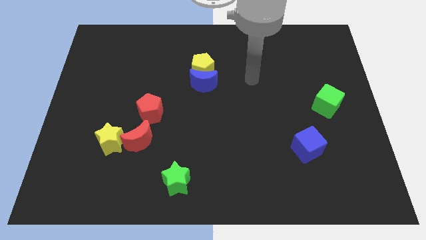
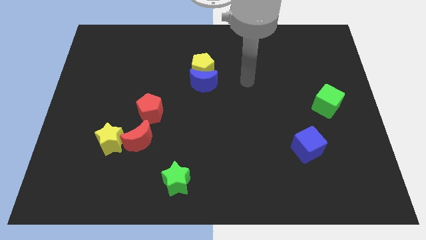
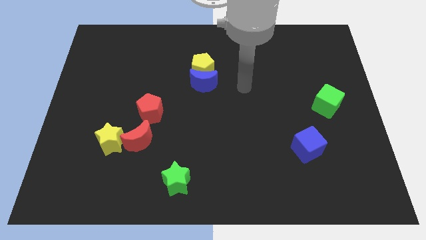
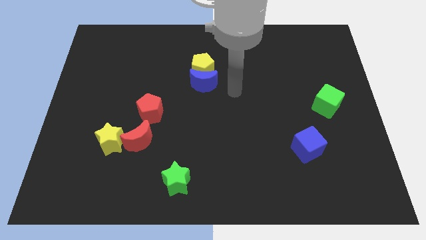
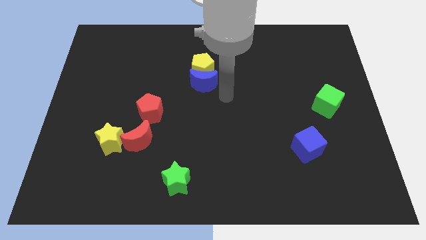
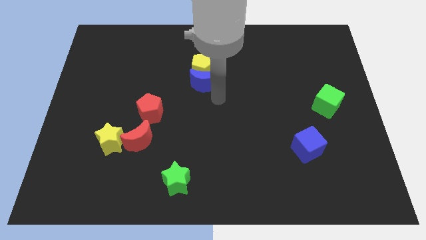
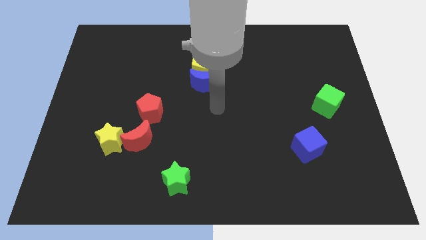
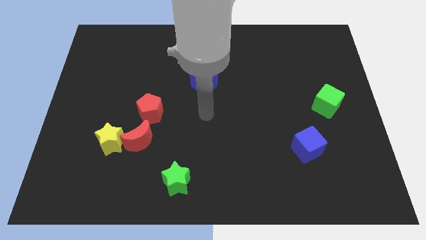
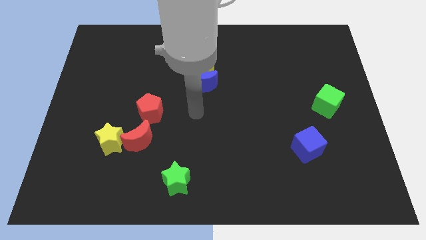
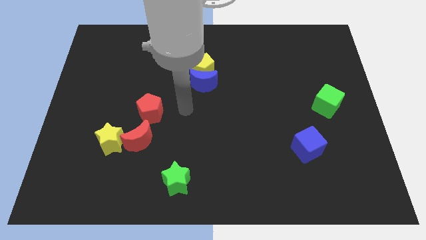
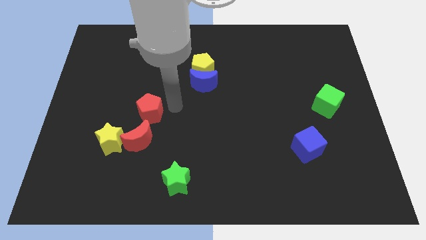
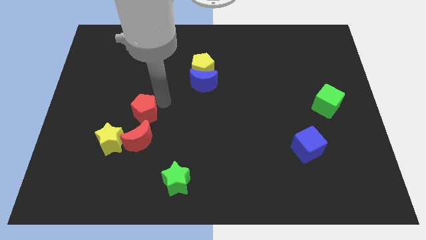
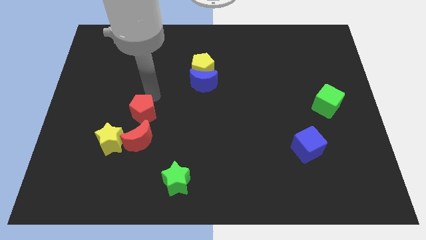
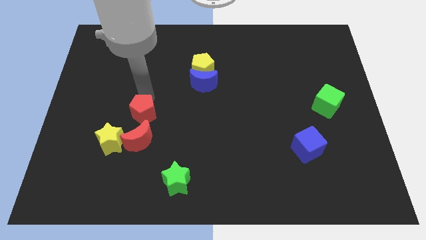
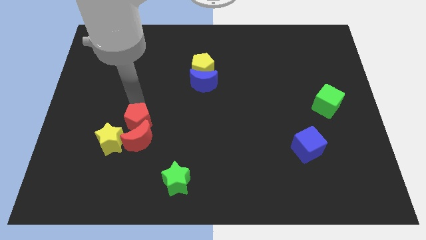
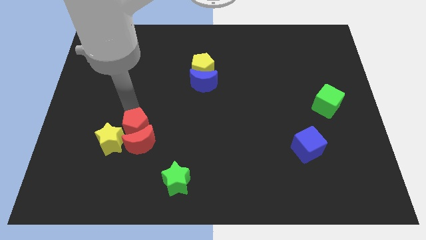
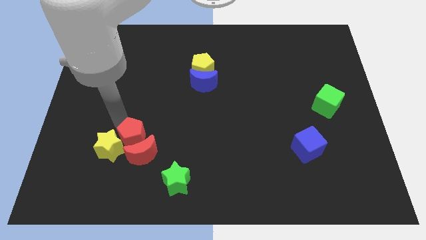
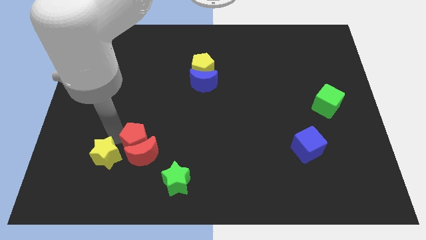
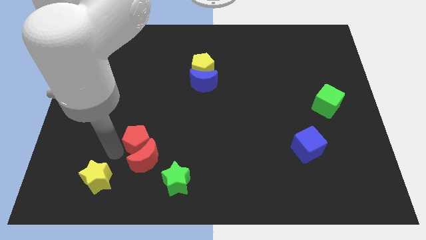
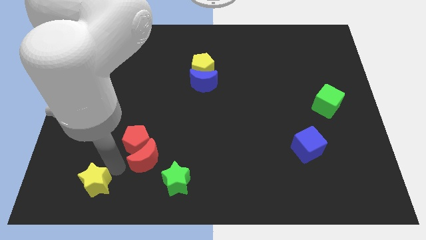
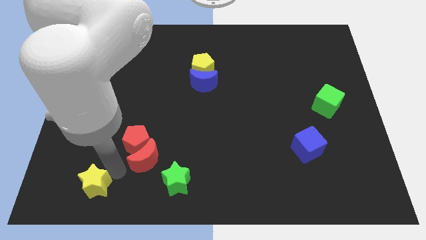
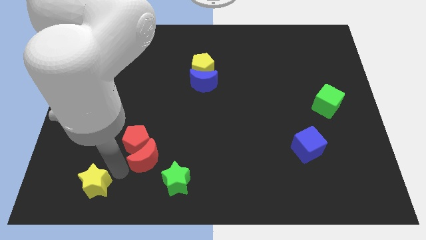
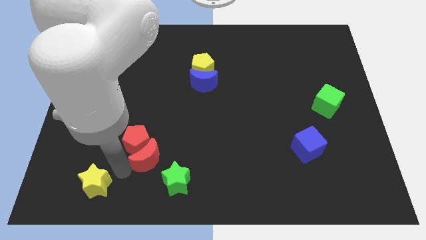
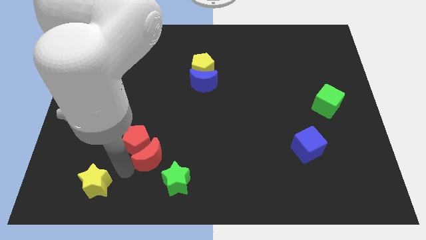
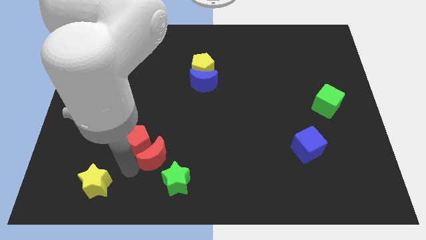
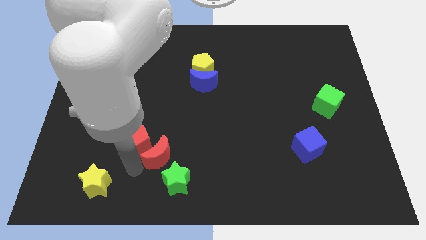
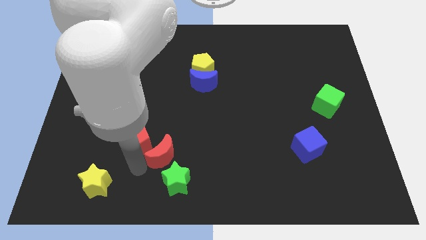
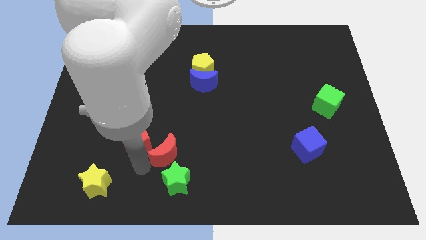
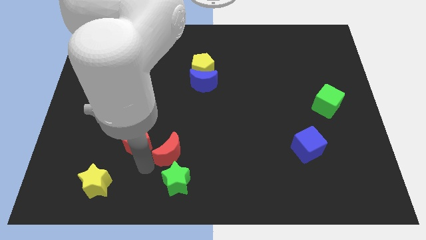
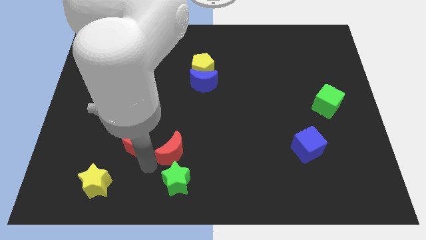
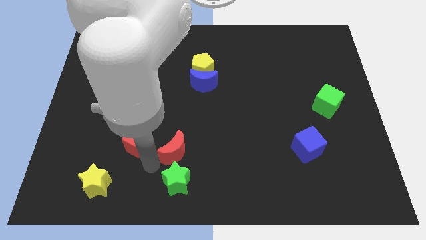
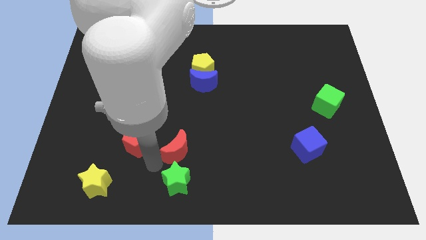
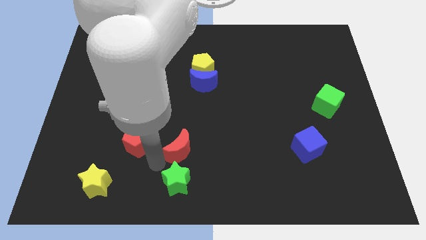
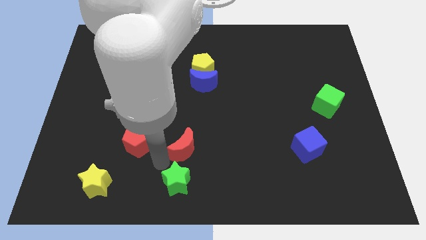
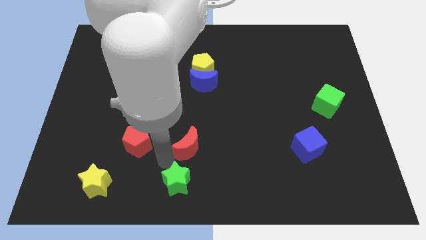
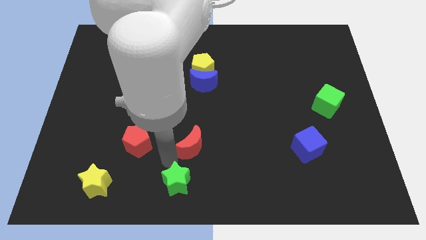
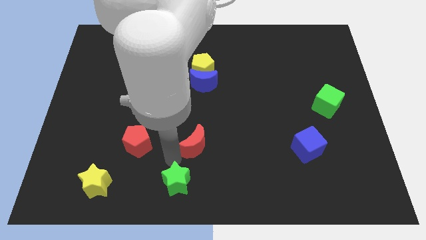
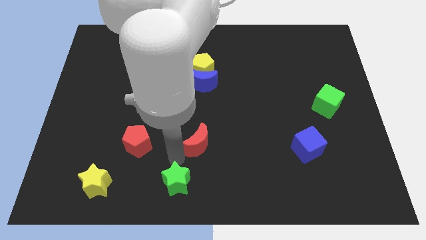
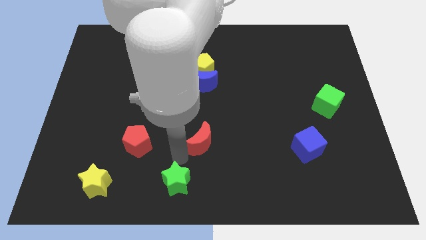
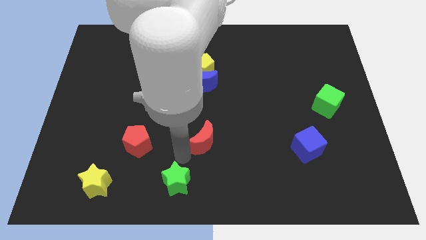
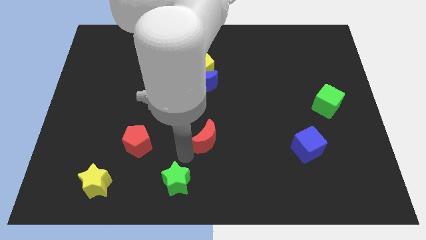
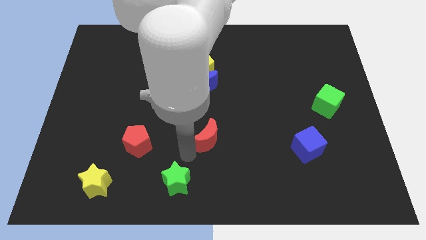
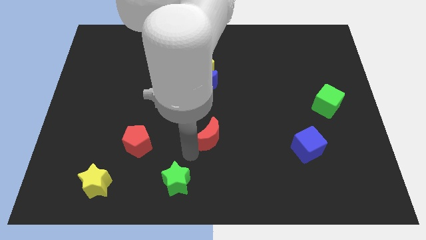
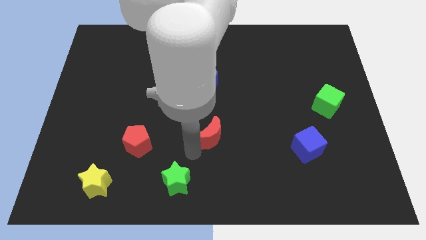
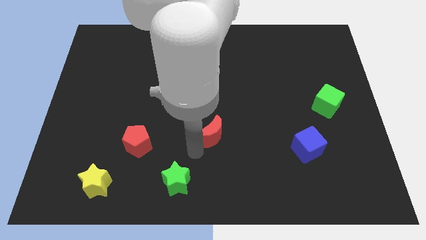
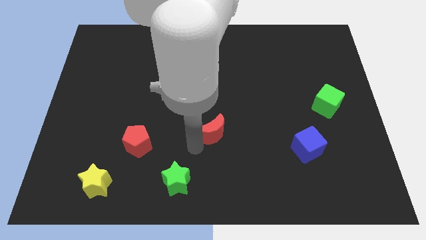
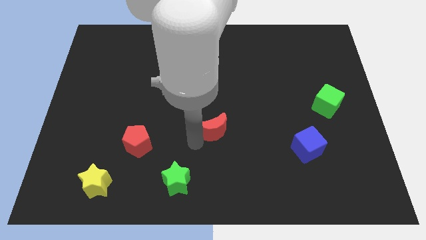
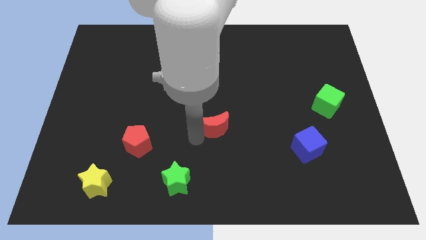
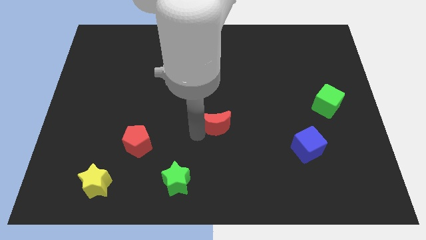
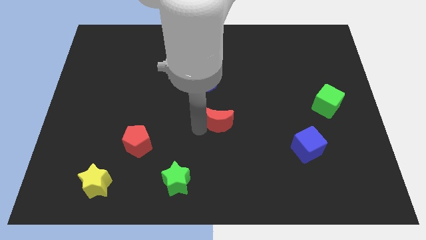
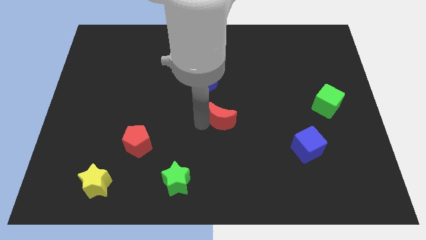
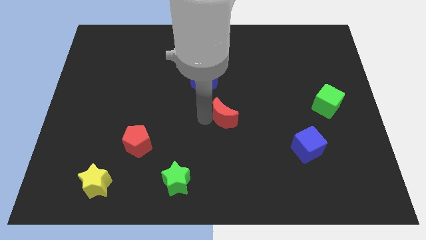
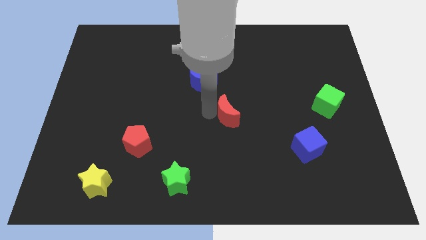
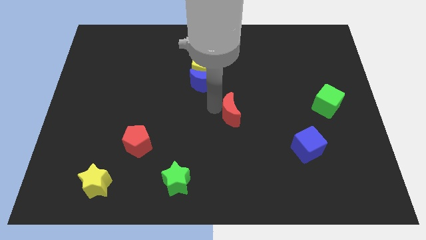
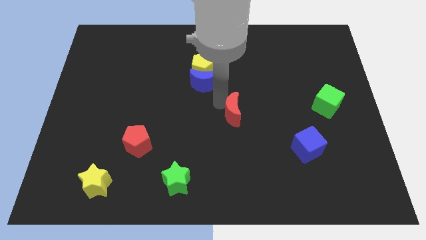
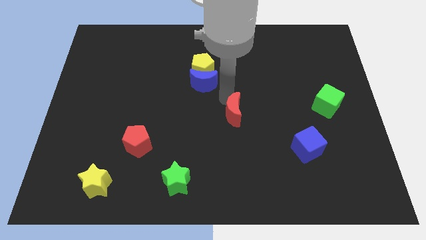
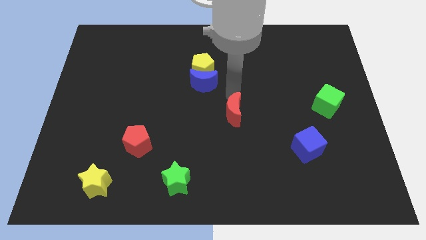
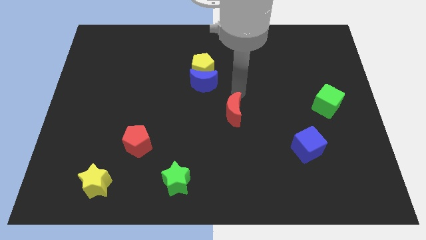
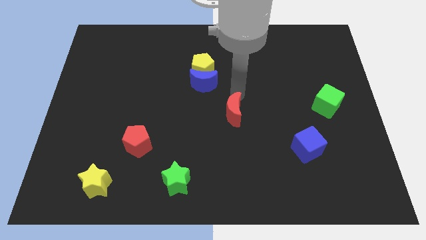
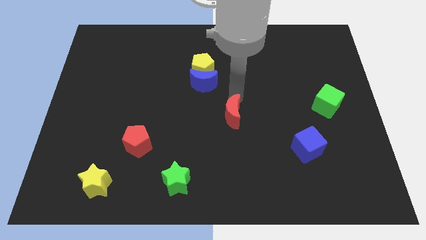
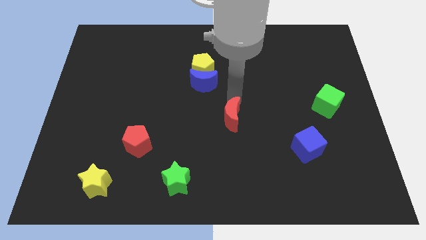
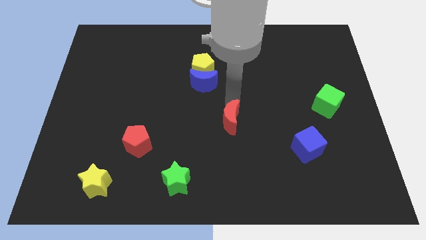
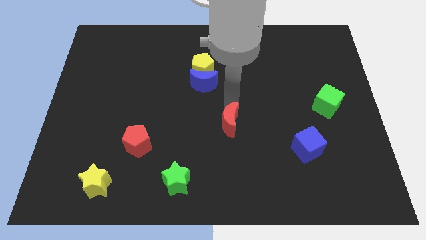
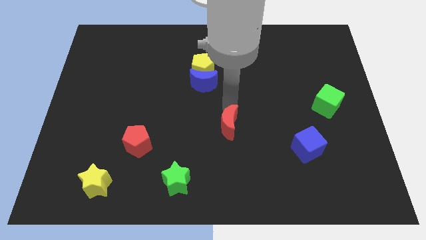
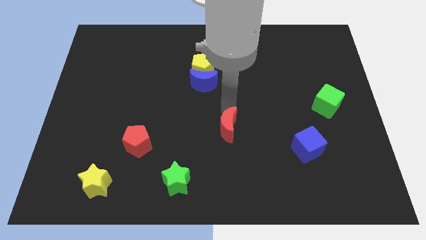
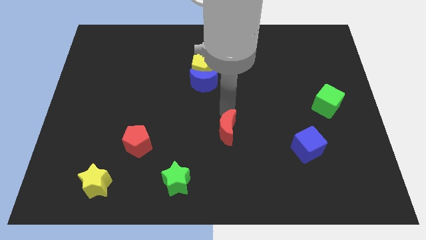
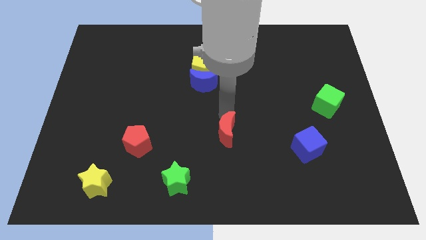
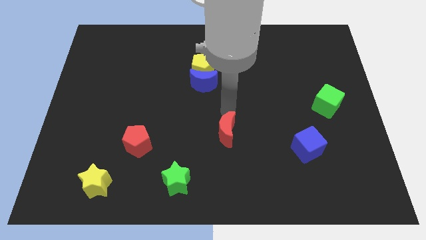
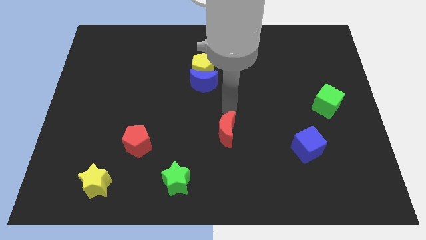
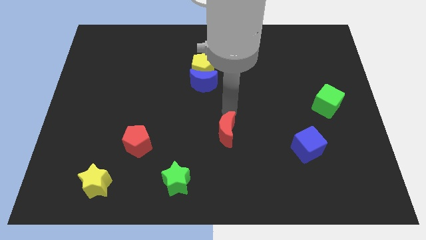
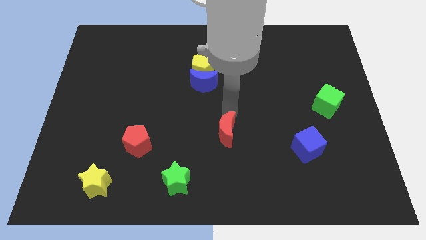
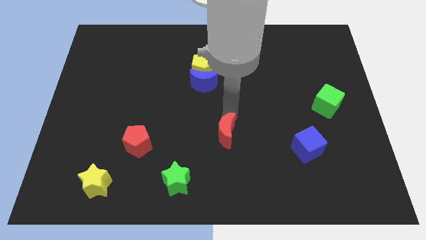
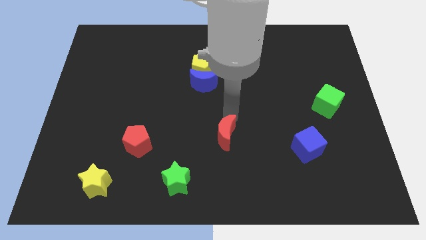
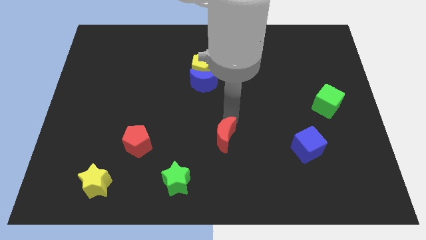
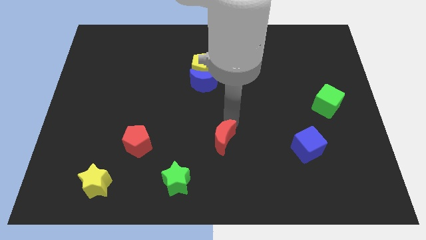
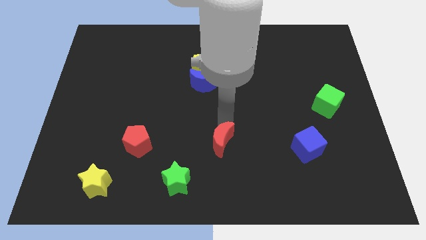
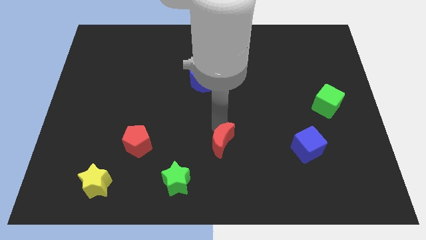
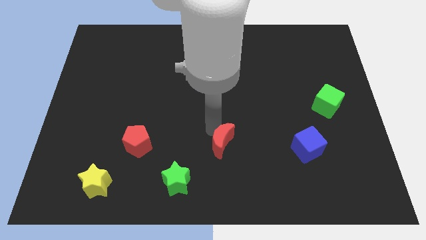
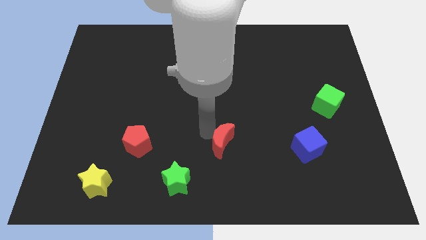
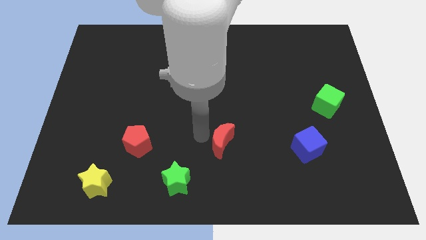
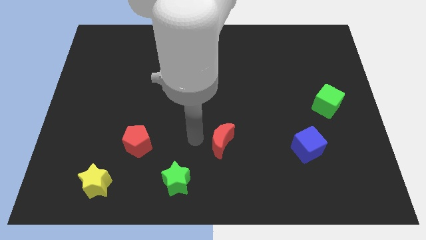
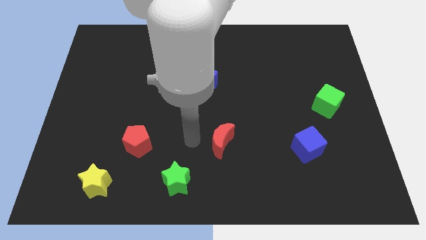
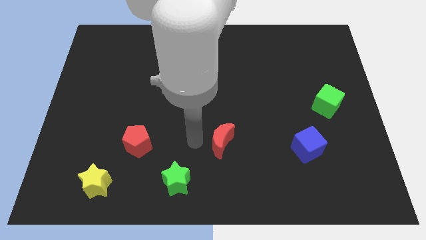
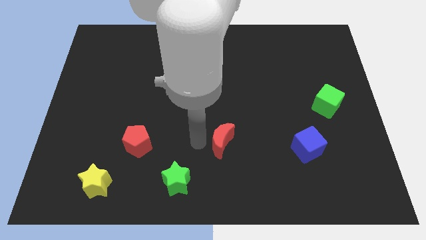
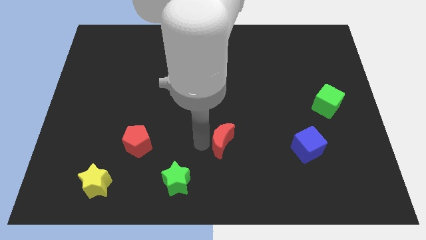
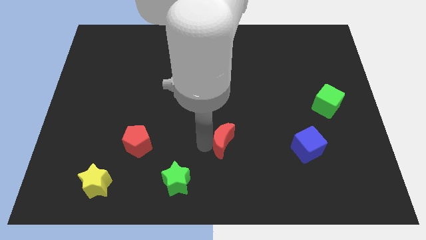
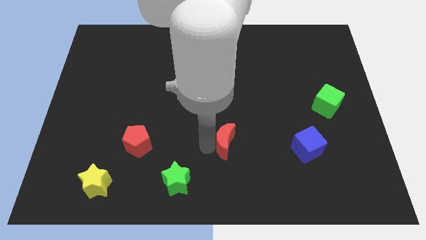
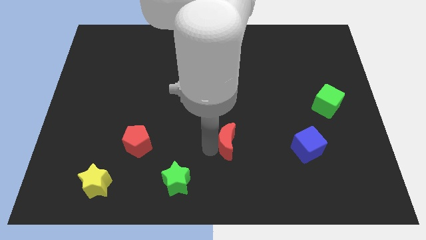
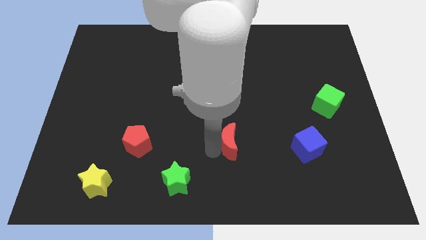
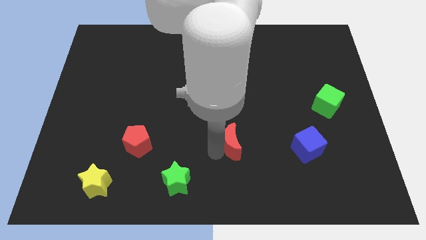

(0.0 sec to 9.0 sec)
move the red moon right
